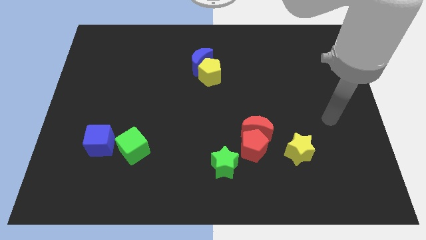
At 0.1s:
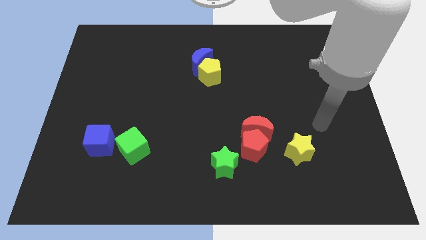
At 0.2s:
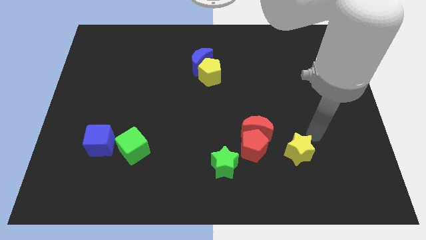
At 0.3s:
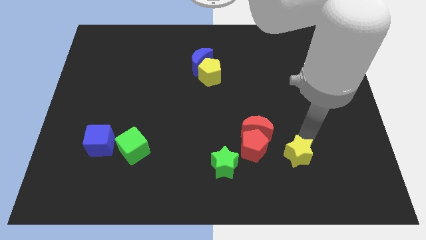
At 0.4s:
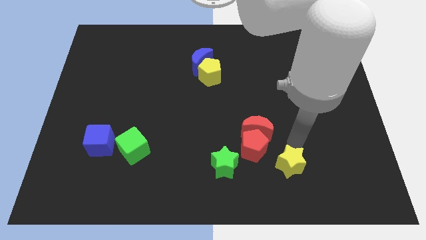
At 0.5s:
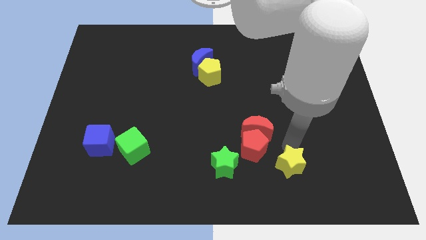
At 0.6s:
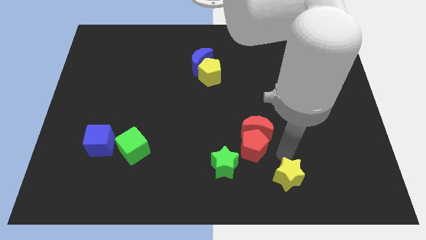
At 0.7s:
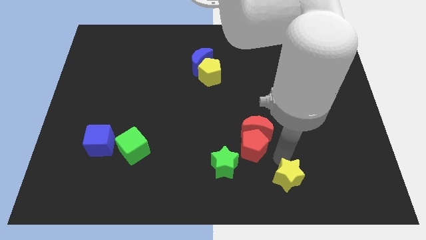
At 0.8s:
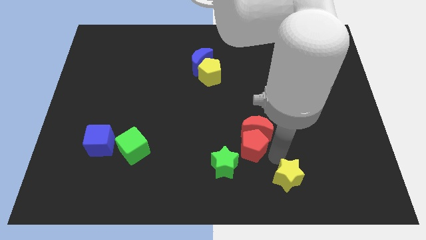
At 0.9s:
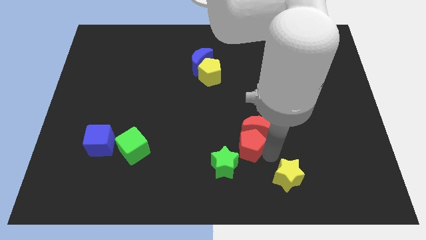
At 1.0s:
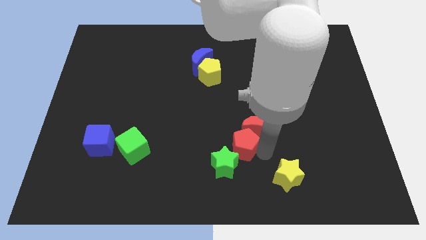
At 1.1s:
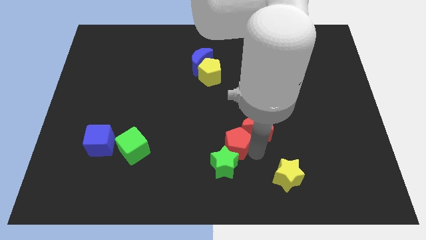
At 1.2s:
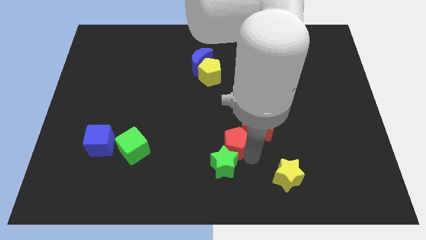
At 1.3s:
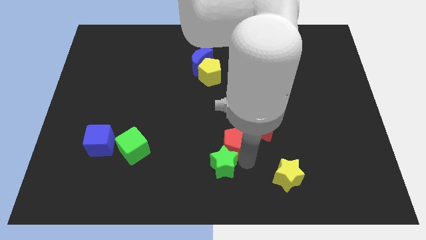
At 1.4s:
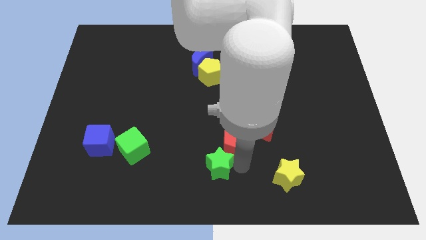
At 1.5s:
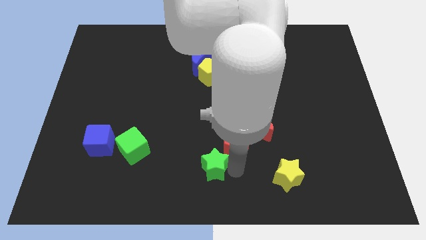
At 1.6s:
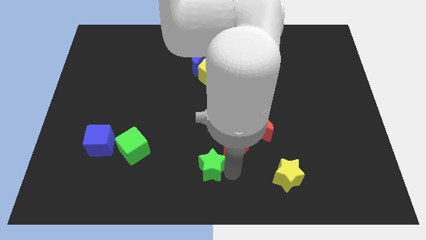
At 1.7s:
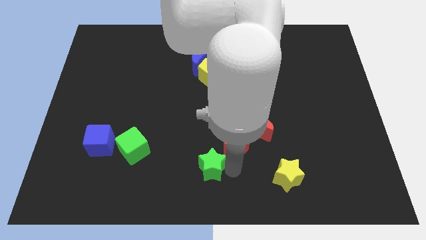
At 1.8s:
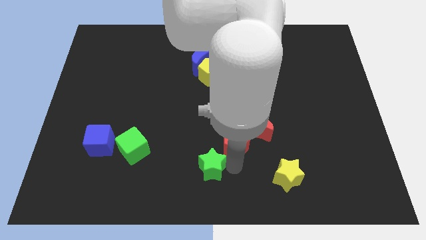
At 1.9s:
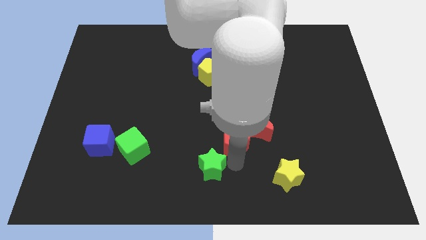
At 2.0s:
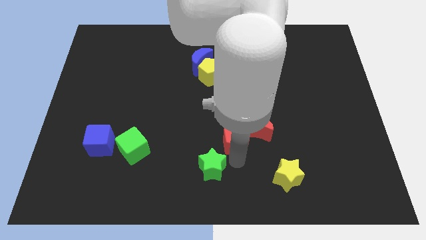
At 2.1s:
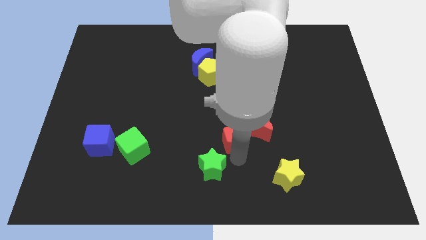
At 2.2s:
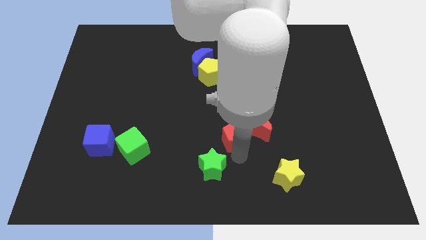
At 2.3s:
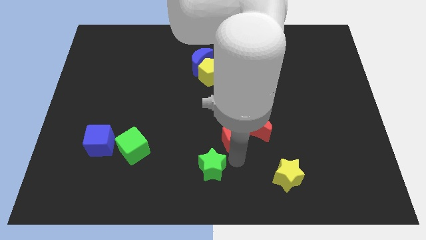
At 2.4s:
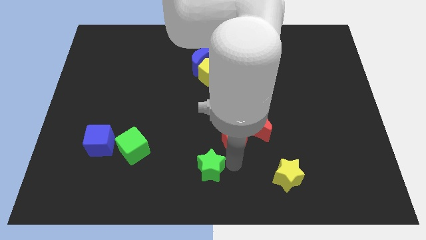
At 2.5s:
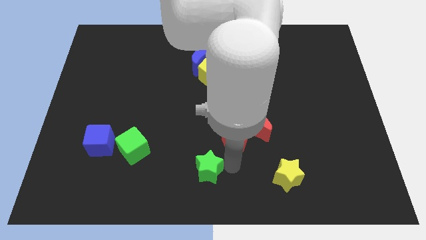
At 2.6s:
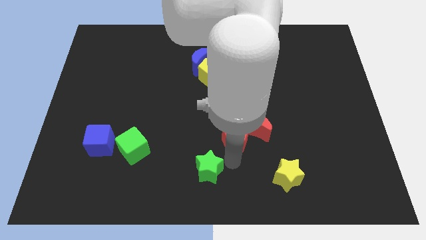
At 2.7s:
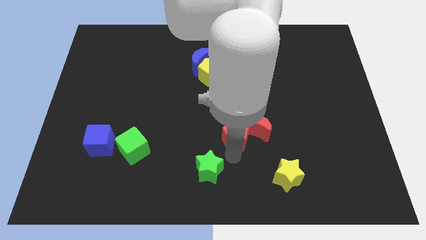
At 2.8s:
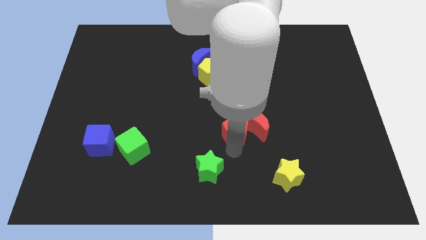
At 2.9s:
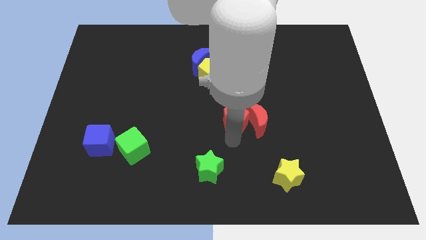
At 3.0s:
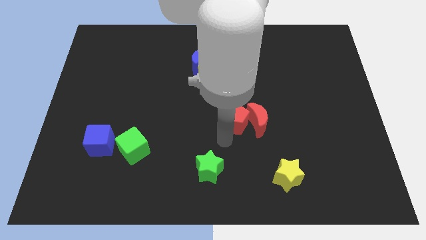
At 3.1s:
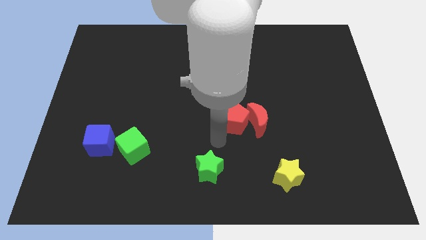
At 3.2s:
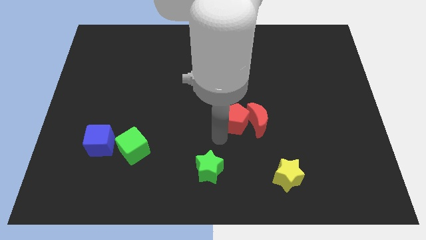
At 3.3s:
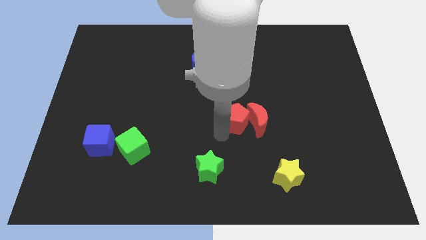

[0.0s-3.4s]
slightly move the red pentagon up

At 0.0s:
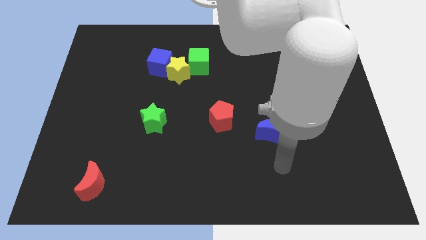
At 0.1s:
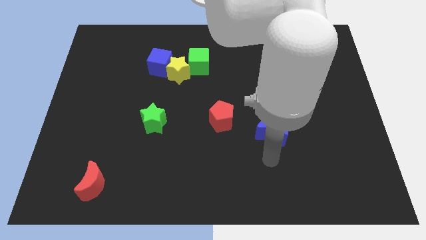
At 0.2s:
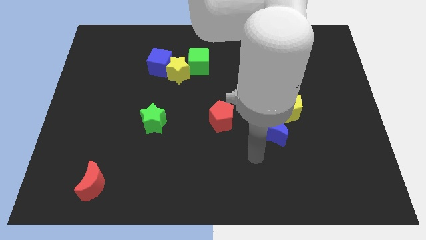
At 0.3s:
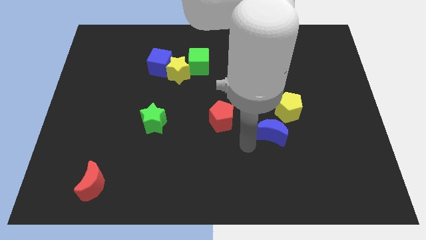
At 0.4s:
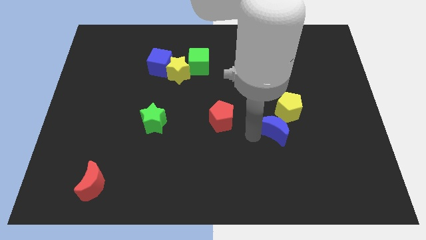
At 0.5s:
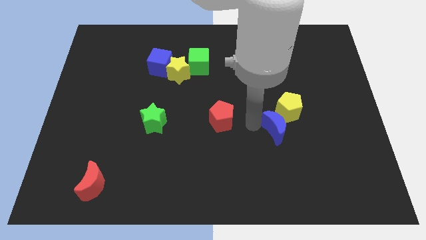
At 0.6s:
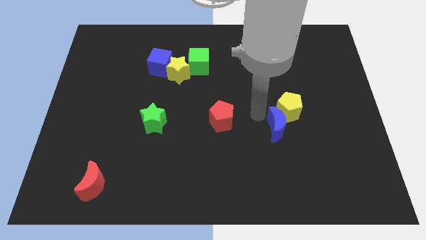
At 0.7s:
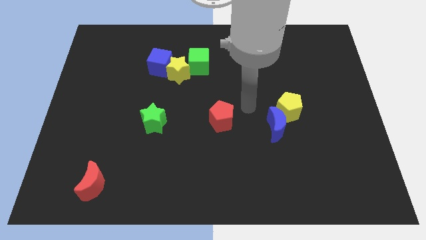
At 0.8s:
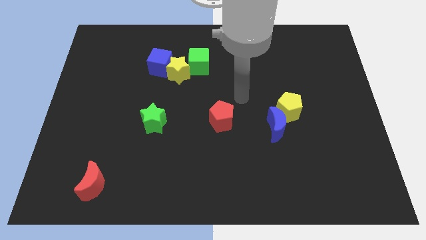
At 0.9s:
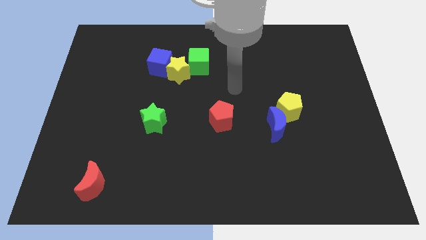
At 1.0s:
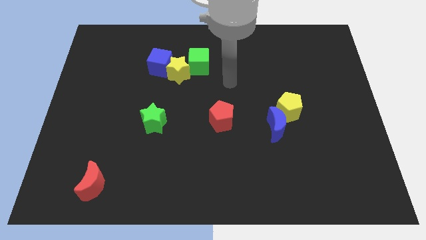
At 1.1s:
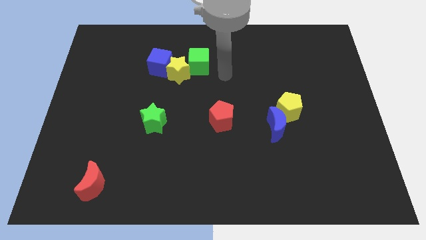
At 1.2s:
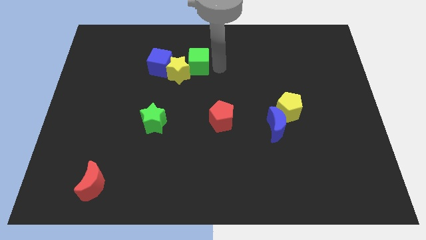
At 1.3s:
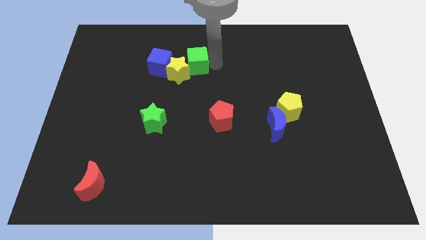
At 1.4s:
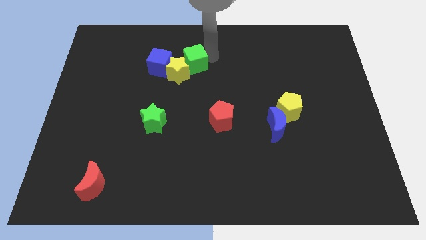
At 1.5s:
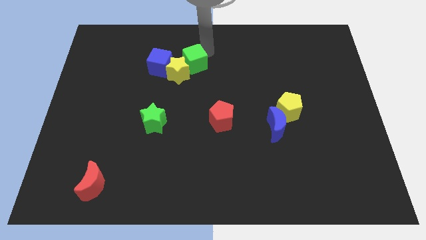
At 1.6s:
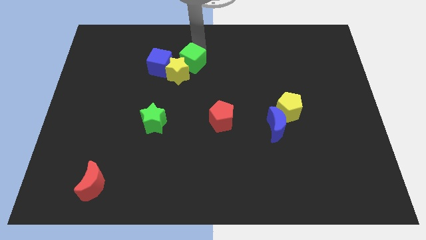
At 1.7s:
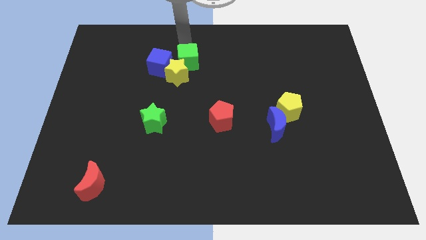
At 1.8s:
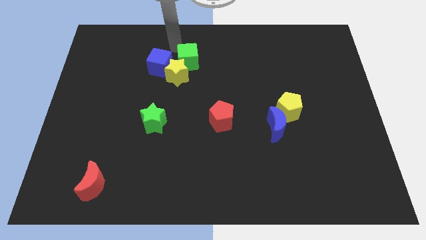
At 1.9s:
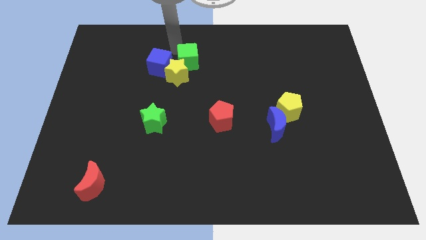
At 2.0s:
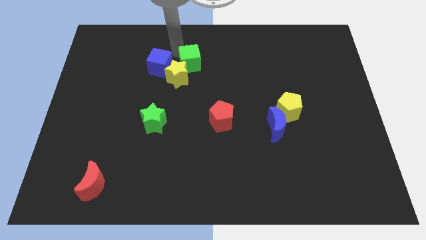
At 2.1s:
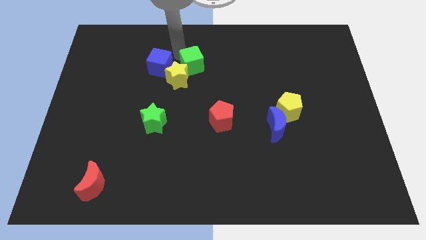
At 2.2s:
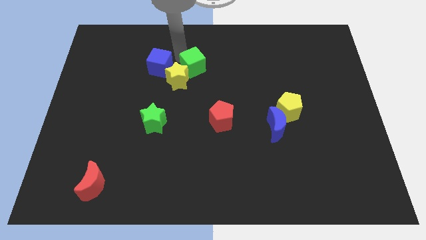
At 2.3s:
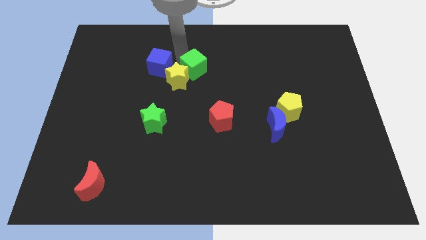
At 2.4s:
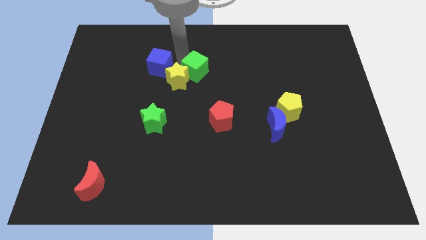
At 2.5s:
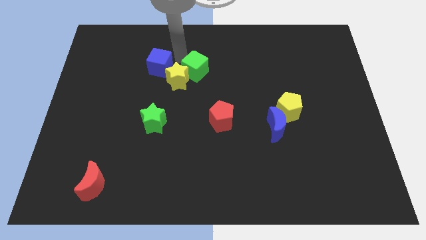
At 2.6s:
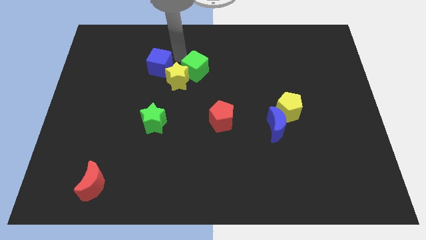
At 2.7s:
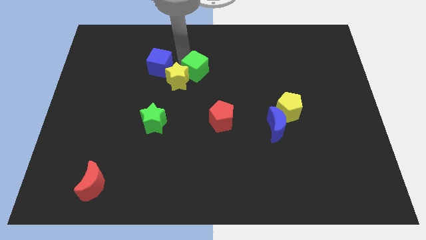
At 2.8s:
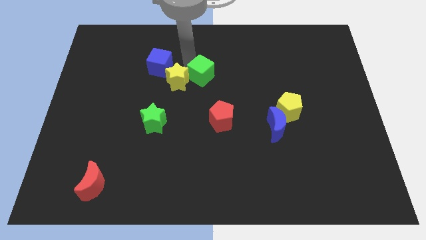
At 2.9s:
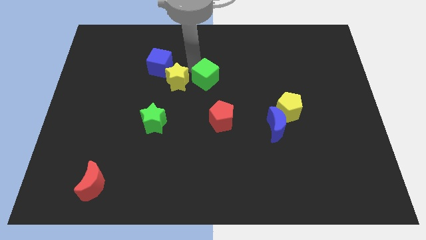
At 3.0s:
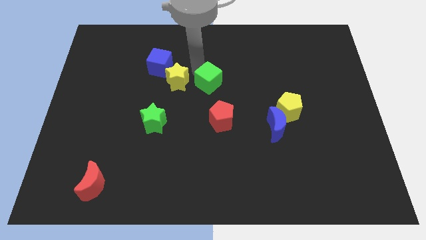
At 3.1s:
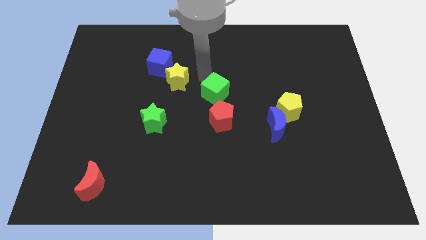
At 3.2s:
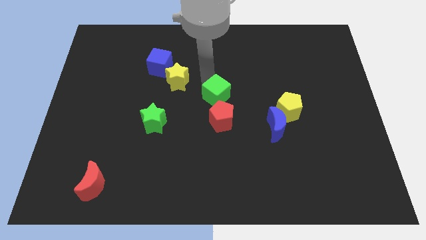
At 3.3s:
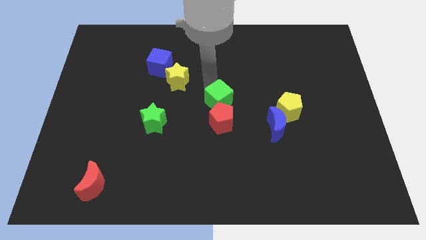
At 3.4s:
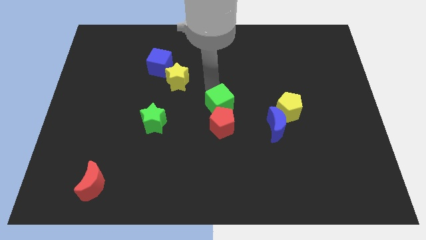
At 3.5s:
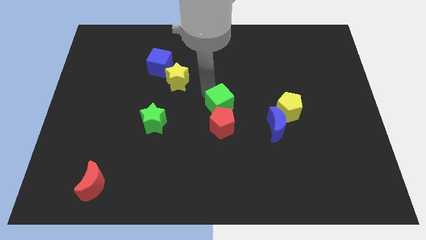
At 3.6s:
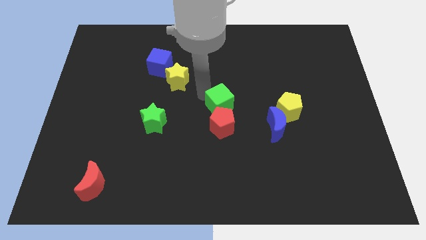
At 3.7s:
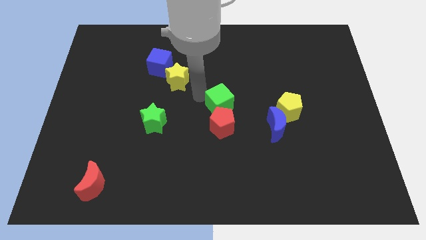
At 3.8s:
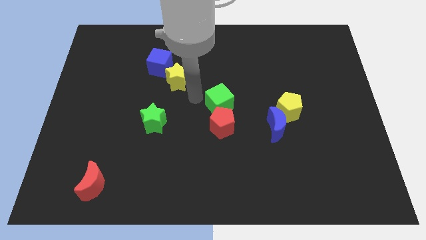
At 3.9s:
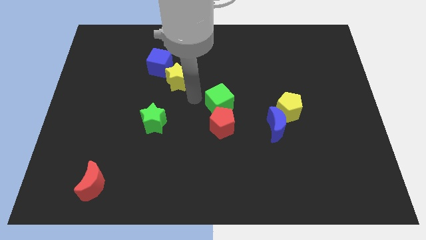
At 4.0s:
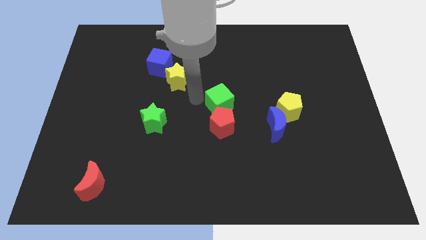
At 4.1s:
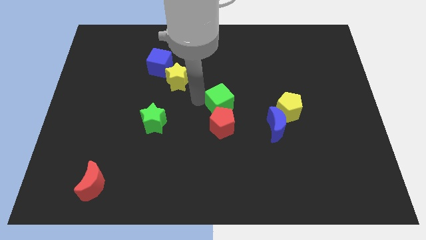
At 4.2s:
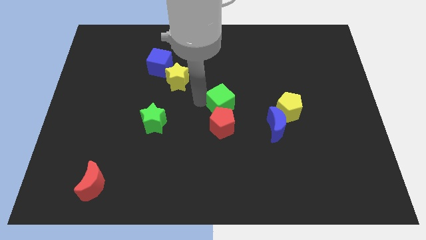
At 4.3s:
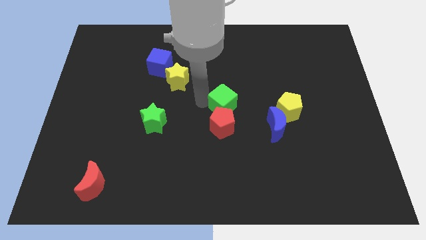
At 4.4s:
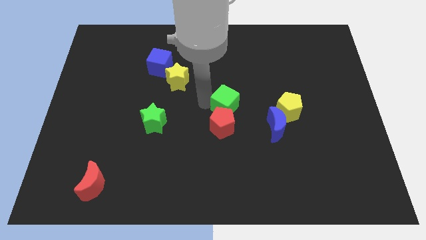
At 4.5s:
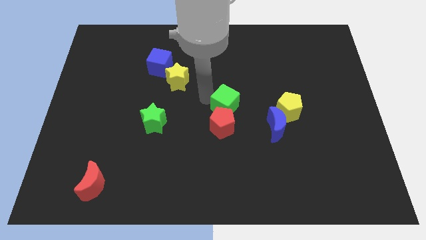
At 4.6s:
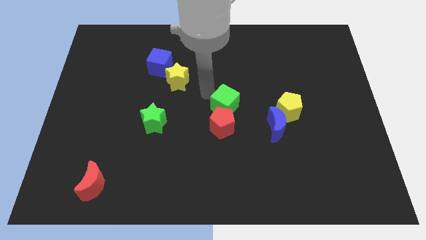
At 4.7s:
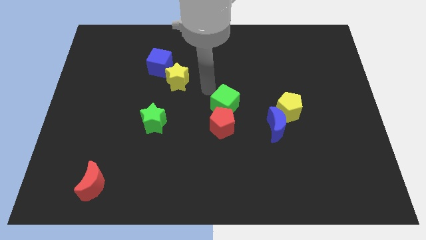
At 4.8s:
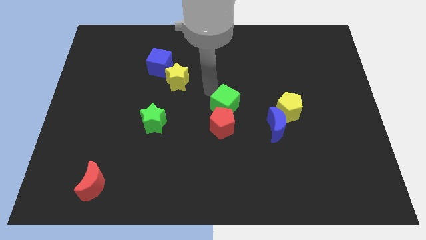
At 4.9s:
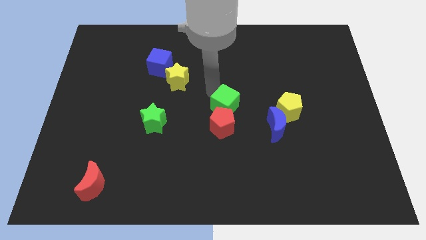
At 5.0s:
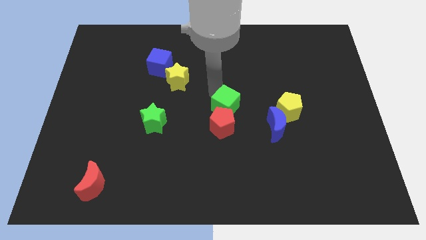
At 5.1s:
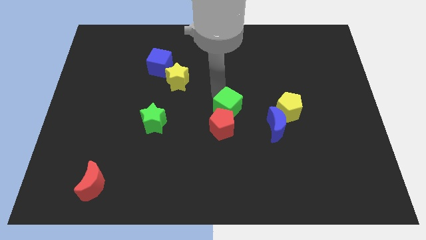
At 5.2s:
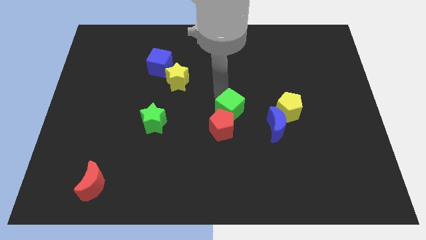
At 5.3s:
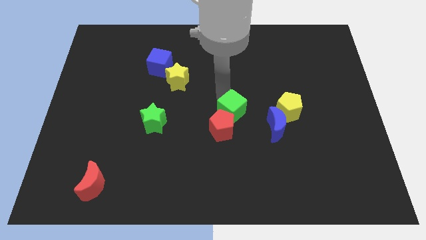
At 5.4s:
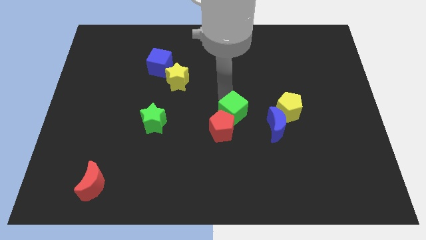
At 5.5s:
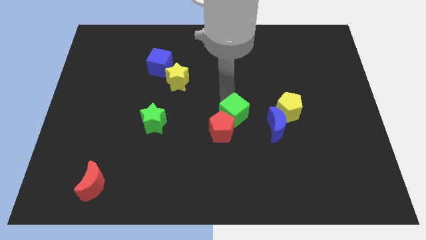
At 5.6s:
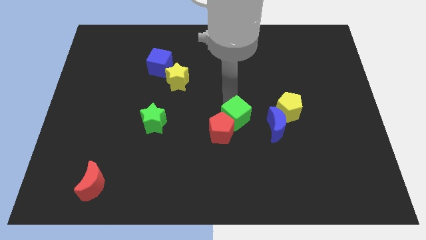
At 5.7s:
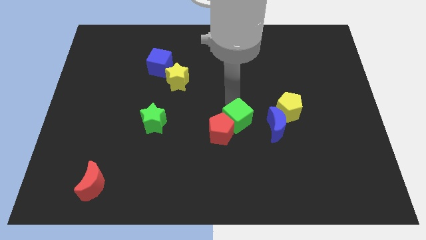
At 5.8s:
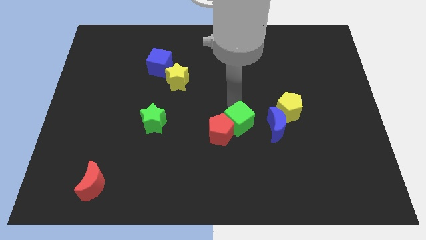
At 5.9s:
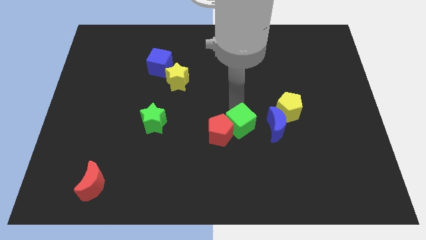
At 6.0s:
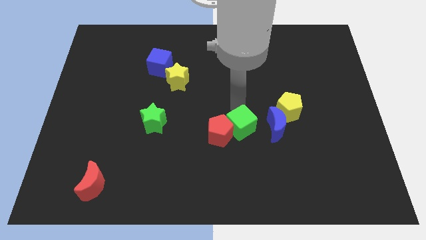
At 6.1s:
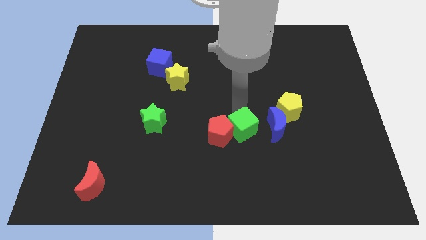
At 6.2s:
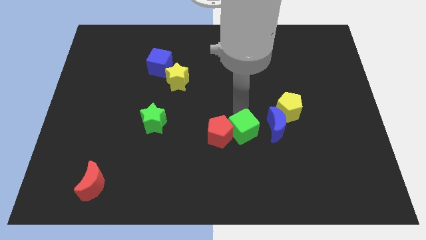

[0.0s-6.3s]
slide the green cube diagonally down and to the right
